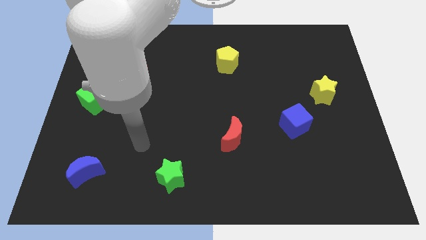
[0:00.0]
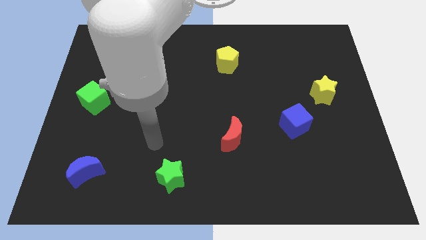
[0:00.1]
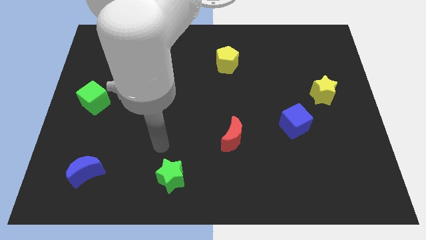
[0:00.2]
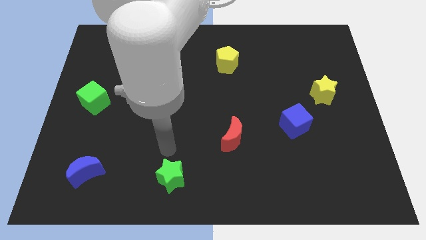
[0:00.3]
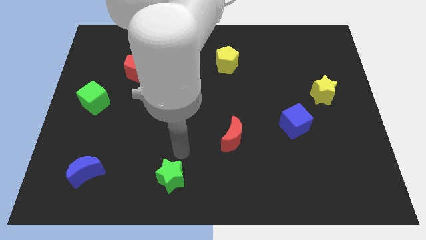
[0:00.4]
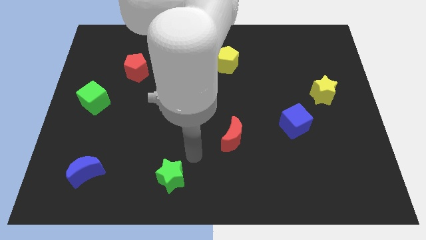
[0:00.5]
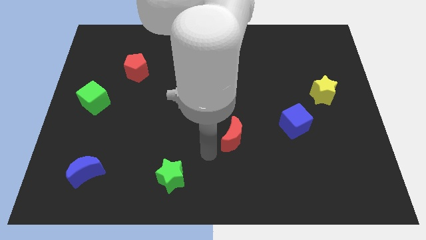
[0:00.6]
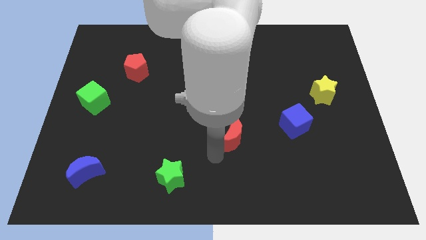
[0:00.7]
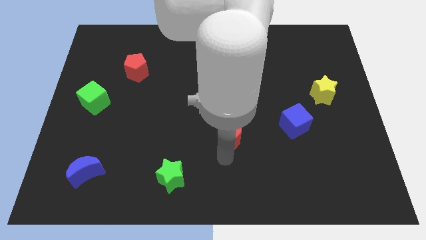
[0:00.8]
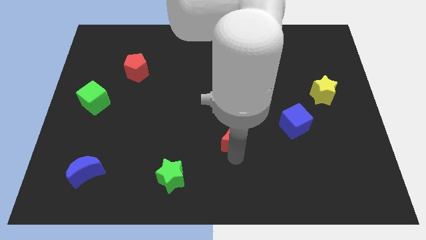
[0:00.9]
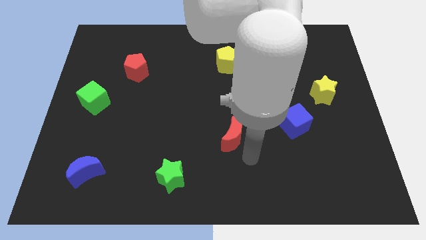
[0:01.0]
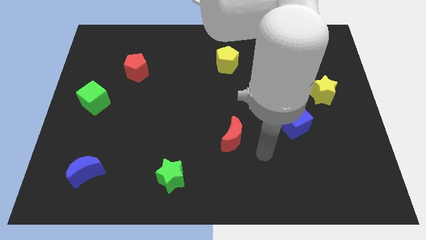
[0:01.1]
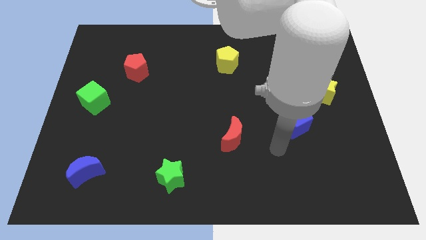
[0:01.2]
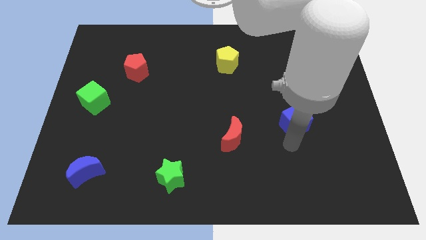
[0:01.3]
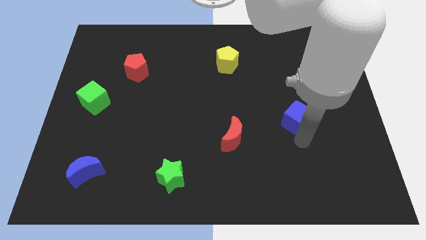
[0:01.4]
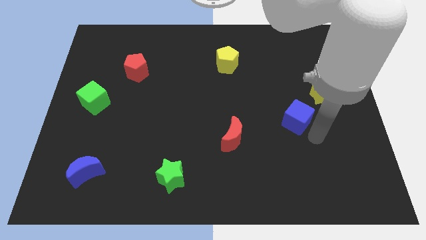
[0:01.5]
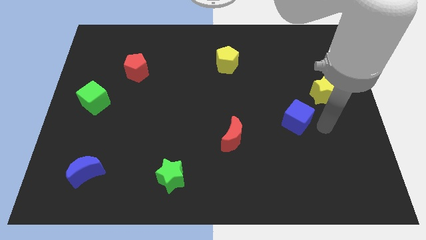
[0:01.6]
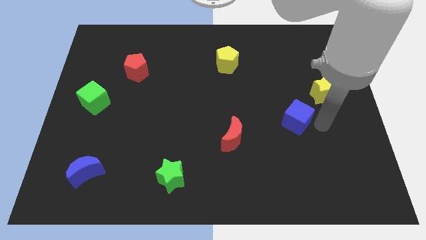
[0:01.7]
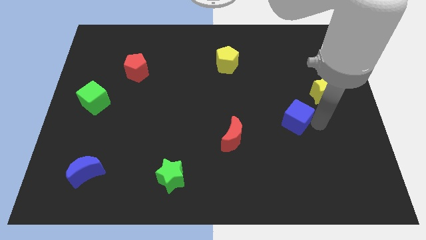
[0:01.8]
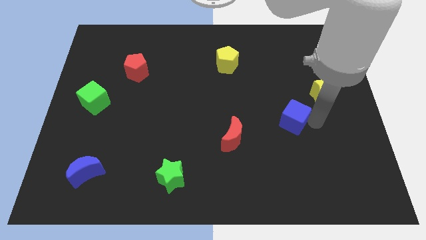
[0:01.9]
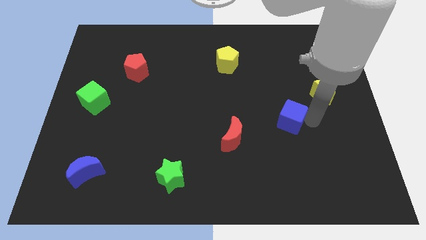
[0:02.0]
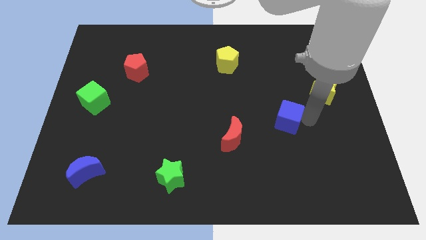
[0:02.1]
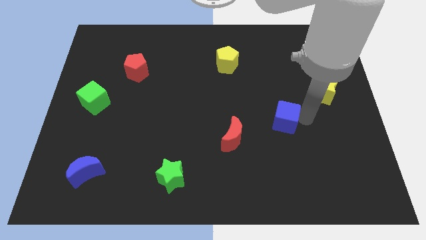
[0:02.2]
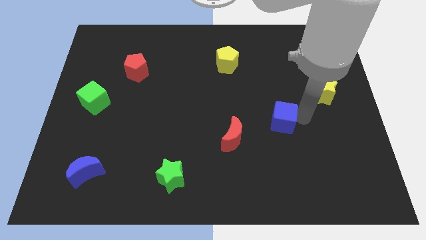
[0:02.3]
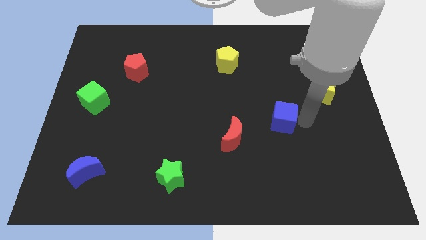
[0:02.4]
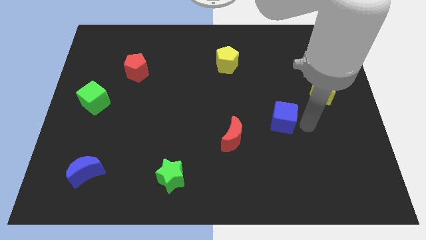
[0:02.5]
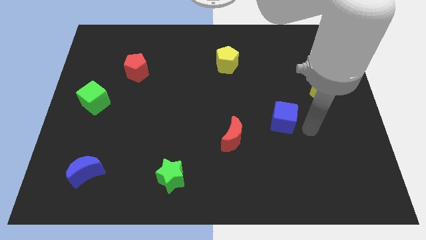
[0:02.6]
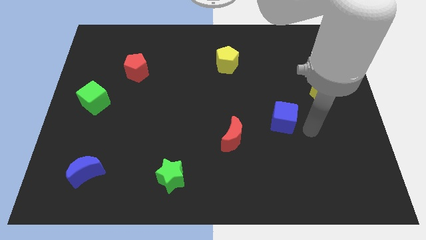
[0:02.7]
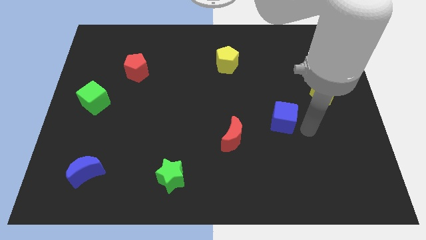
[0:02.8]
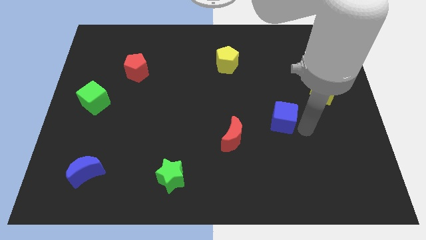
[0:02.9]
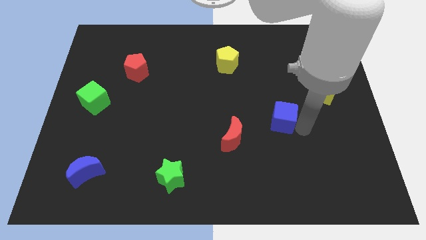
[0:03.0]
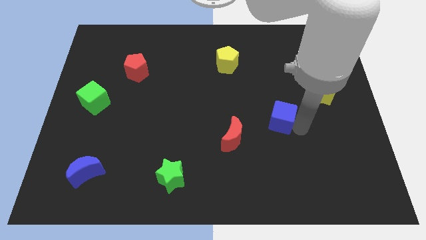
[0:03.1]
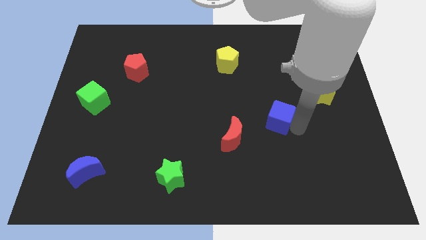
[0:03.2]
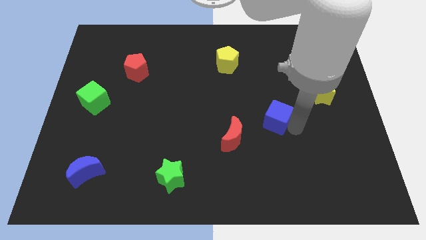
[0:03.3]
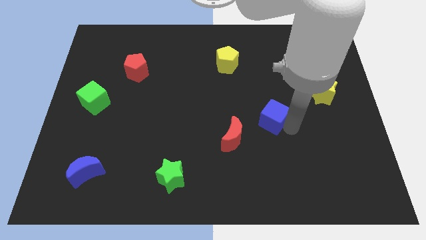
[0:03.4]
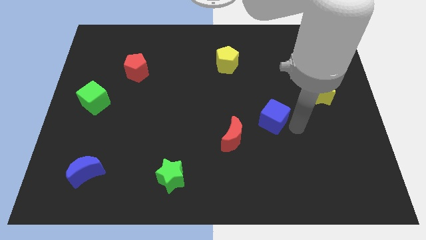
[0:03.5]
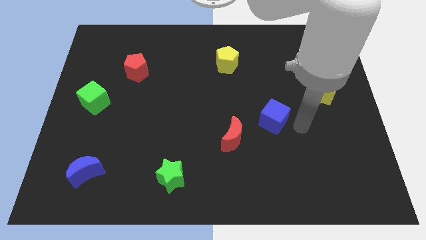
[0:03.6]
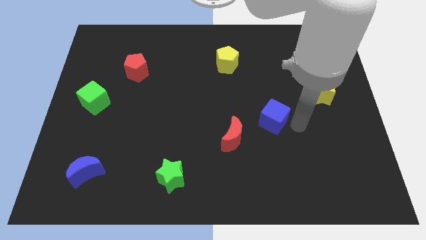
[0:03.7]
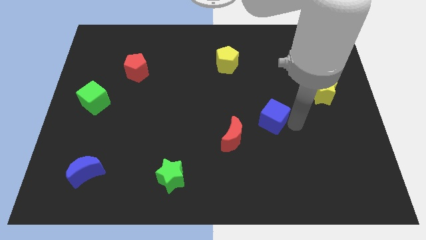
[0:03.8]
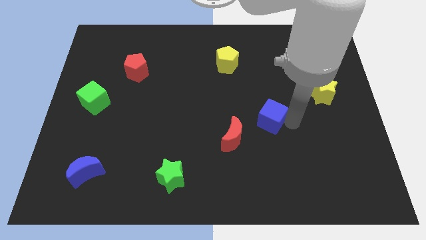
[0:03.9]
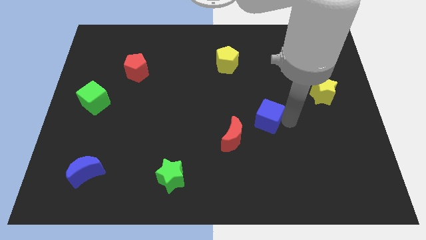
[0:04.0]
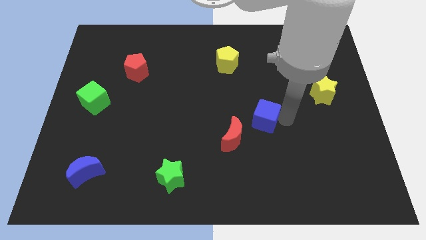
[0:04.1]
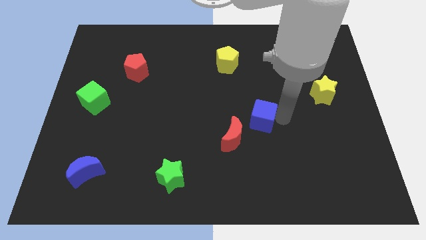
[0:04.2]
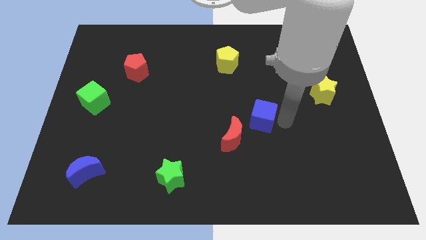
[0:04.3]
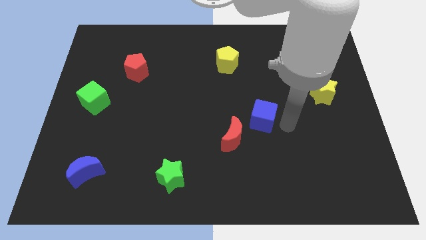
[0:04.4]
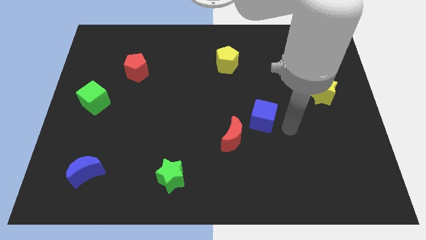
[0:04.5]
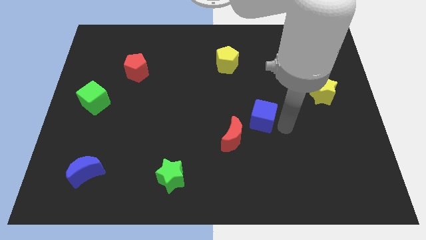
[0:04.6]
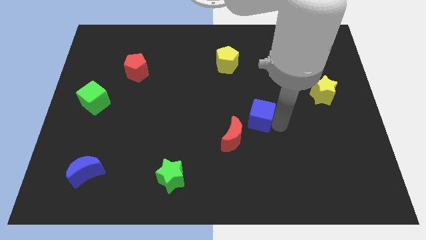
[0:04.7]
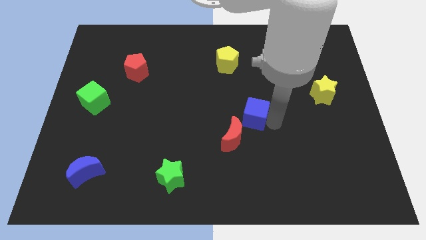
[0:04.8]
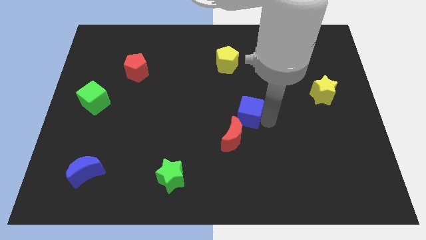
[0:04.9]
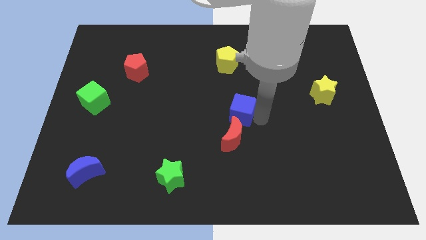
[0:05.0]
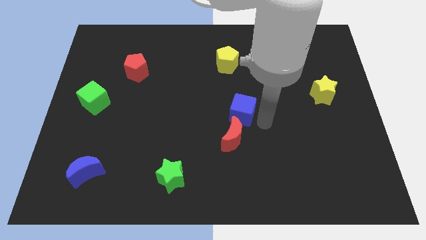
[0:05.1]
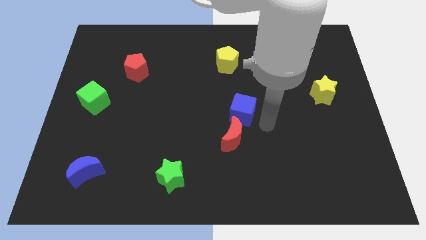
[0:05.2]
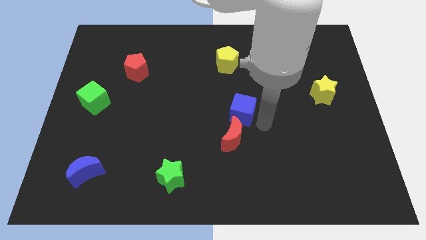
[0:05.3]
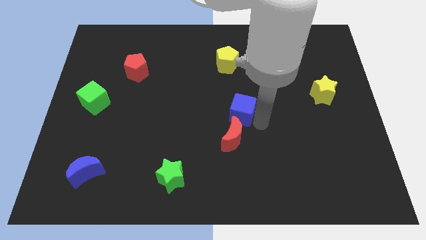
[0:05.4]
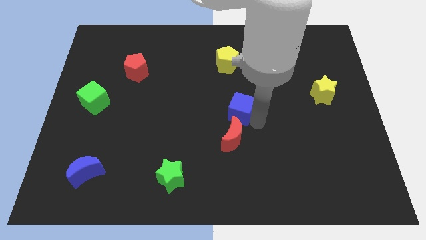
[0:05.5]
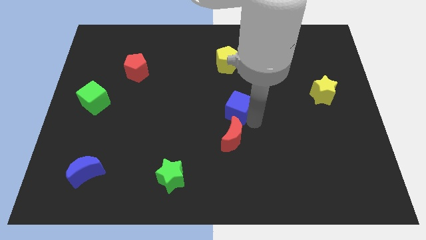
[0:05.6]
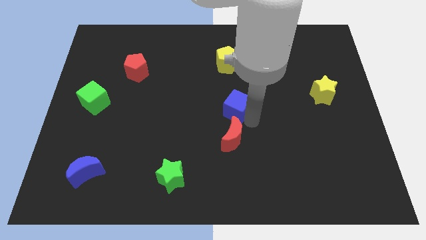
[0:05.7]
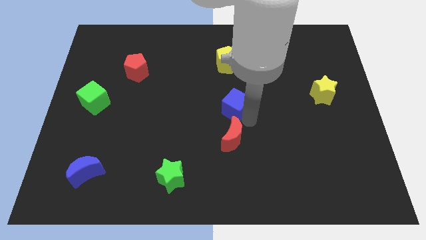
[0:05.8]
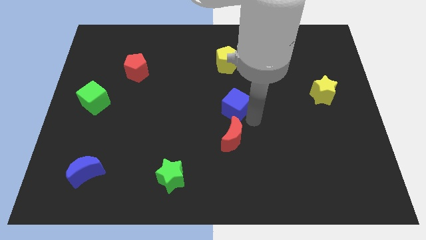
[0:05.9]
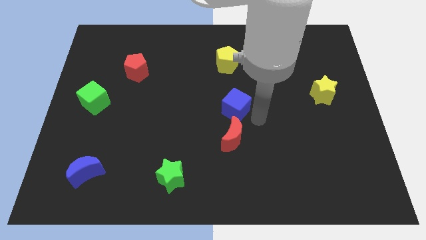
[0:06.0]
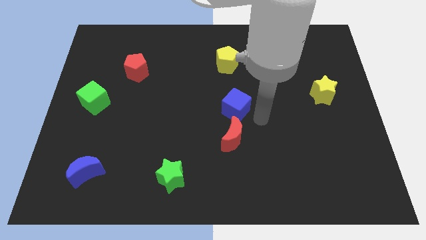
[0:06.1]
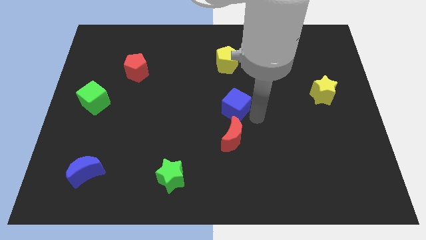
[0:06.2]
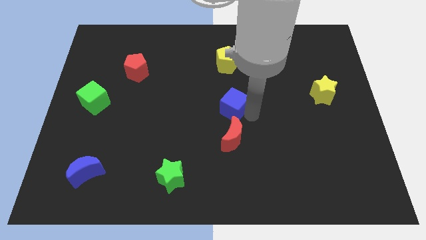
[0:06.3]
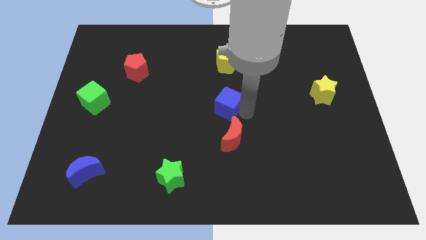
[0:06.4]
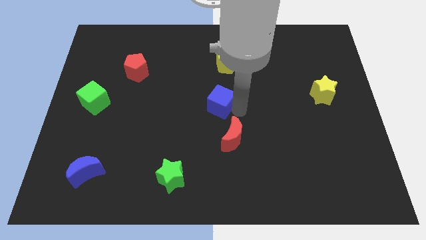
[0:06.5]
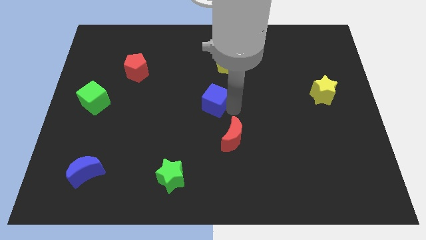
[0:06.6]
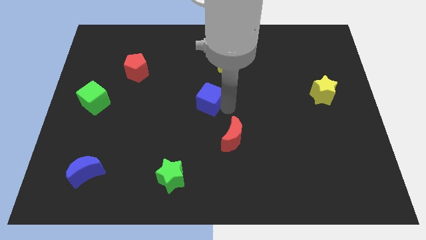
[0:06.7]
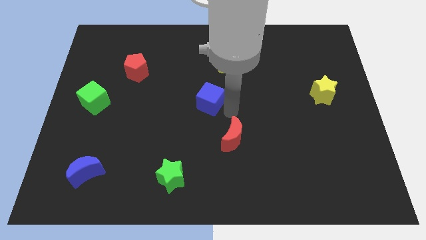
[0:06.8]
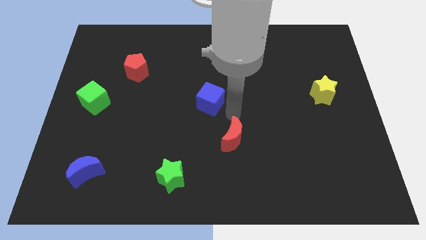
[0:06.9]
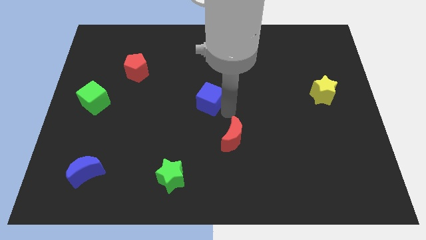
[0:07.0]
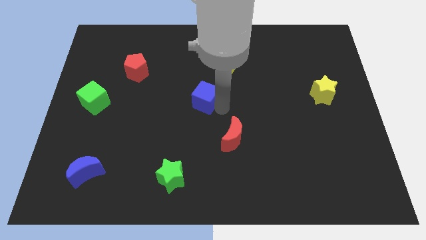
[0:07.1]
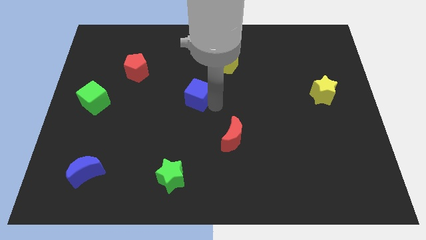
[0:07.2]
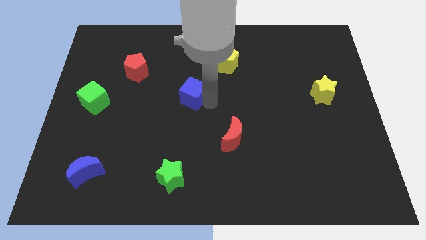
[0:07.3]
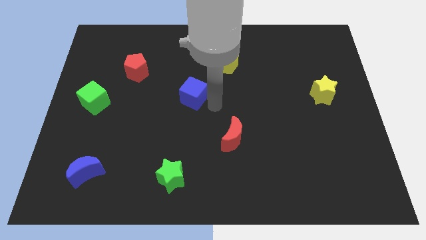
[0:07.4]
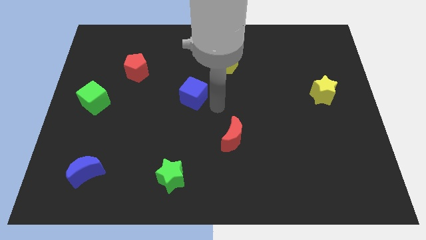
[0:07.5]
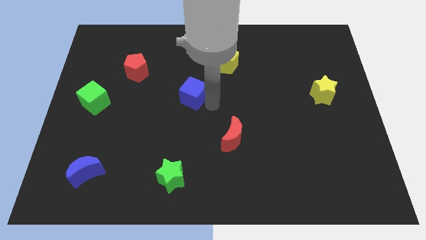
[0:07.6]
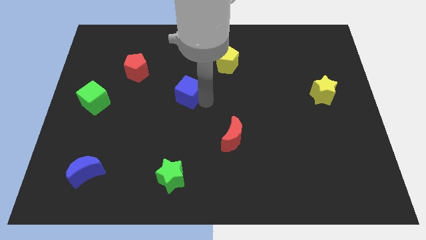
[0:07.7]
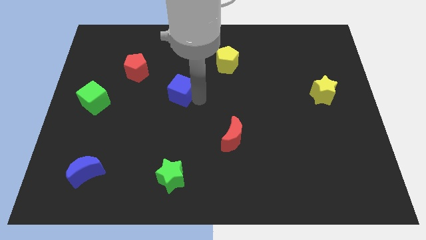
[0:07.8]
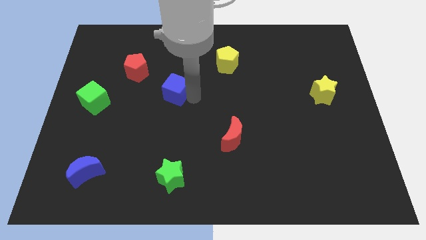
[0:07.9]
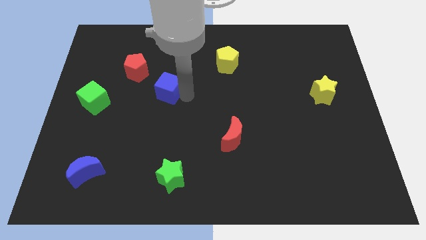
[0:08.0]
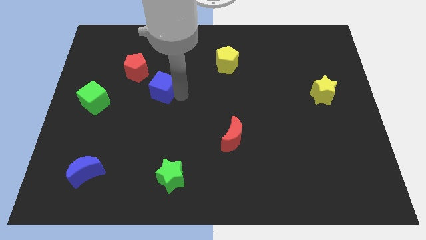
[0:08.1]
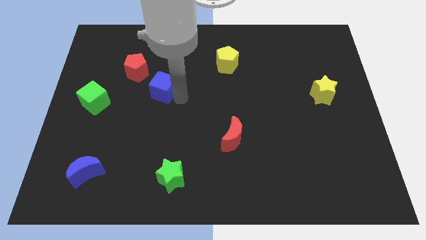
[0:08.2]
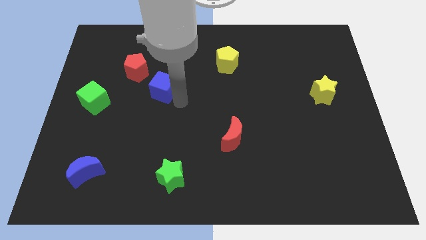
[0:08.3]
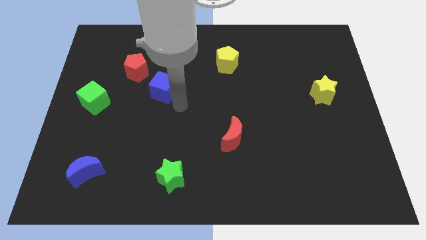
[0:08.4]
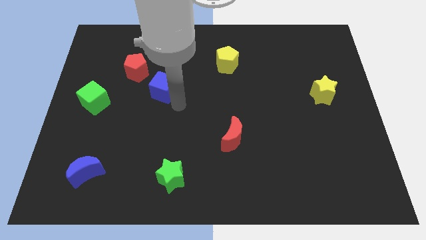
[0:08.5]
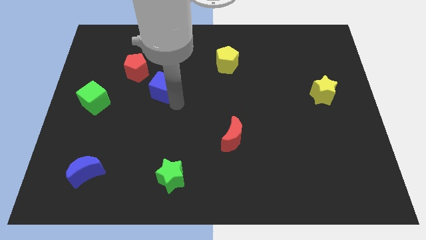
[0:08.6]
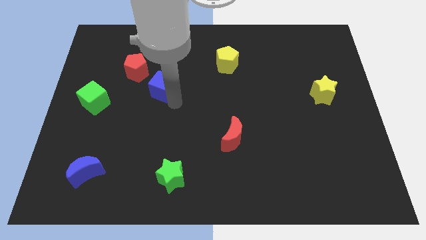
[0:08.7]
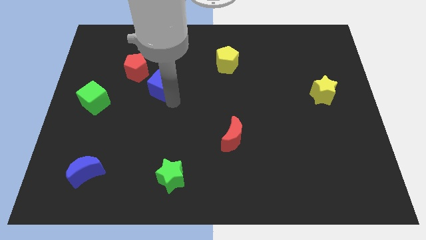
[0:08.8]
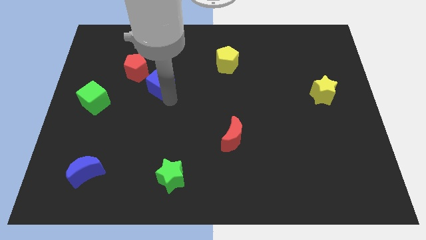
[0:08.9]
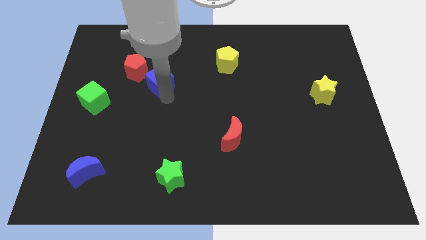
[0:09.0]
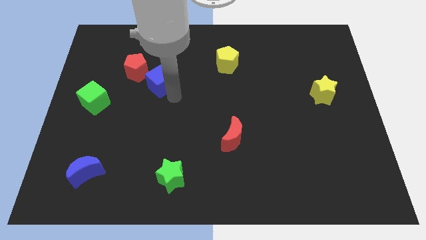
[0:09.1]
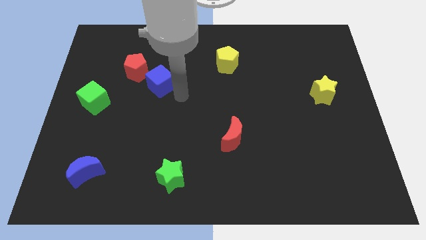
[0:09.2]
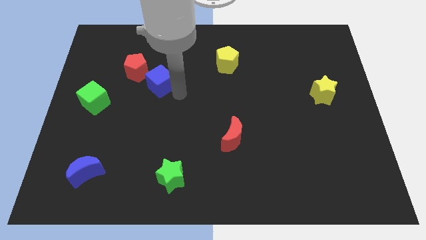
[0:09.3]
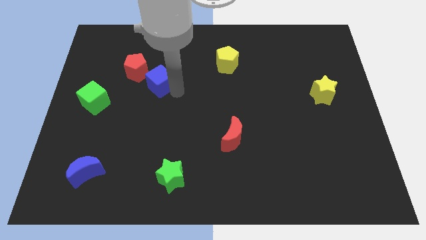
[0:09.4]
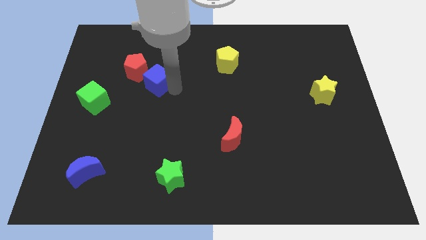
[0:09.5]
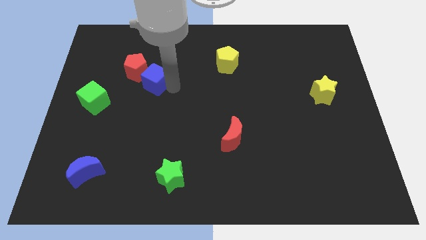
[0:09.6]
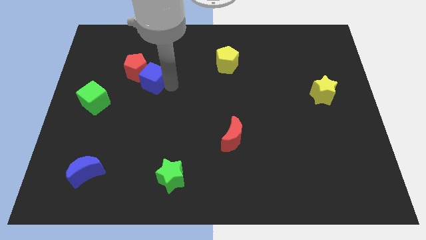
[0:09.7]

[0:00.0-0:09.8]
move the blue cube towards the red pentagon
